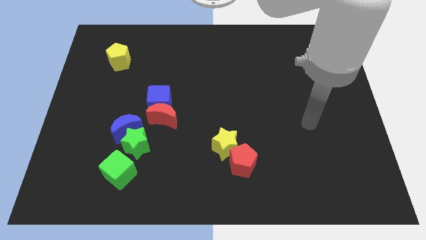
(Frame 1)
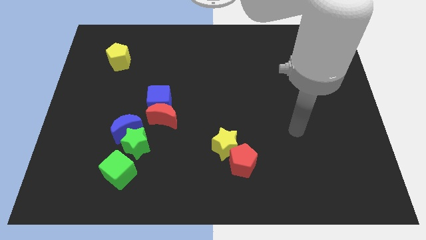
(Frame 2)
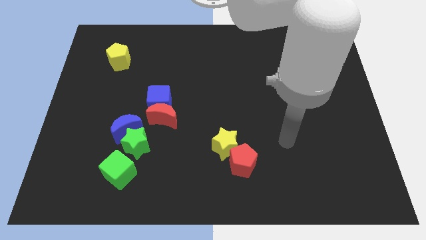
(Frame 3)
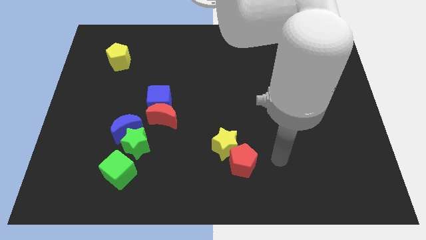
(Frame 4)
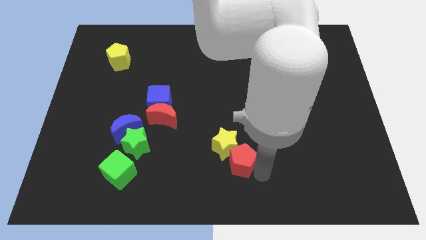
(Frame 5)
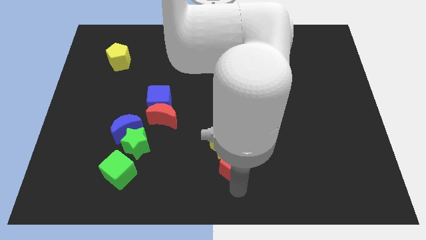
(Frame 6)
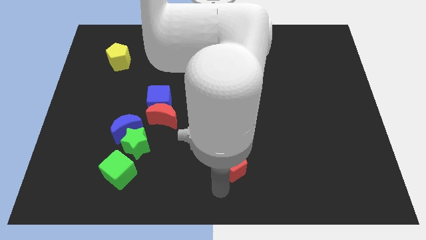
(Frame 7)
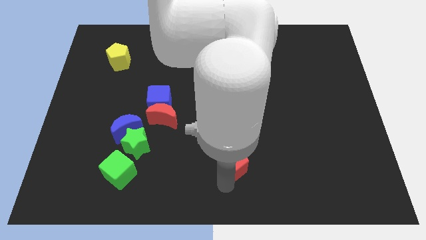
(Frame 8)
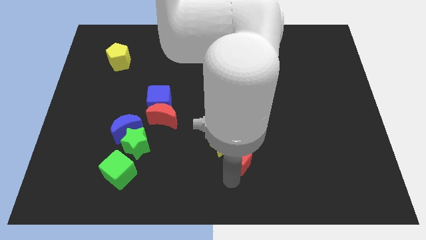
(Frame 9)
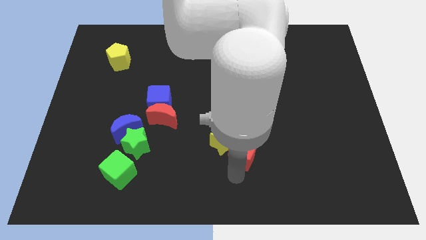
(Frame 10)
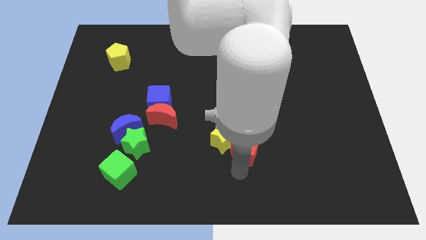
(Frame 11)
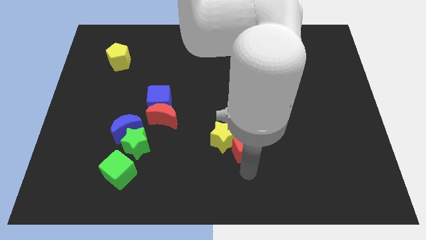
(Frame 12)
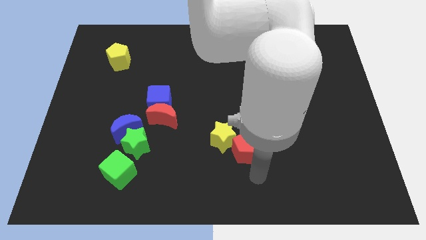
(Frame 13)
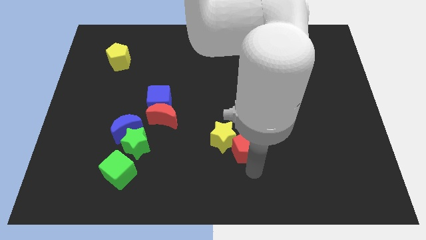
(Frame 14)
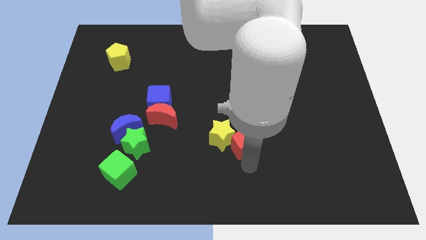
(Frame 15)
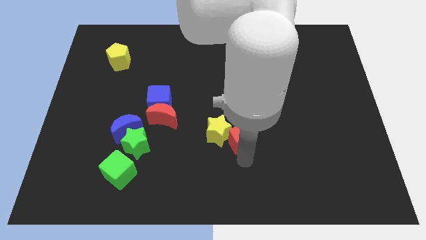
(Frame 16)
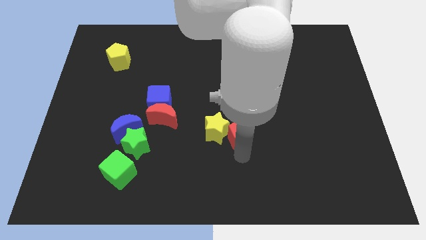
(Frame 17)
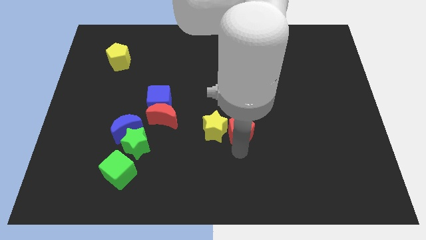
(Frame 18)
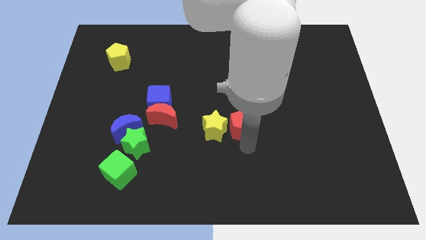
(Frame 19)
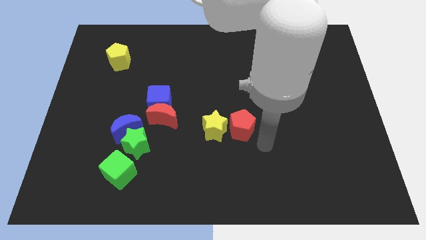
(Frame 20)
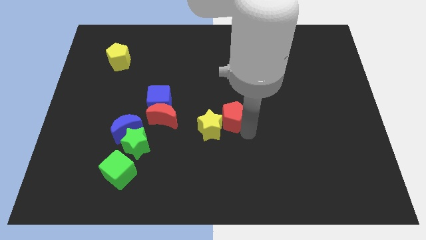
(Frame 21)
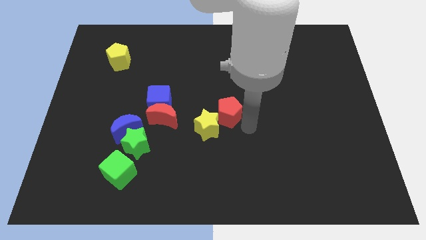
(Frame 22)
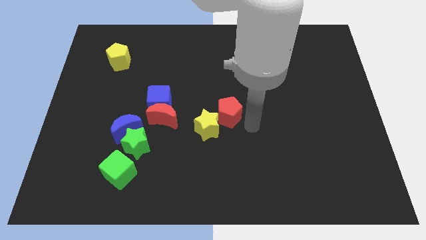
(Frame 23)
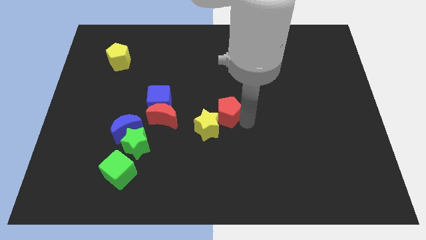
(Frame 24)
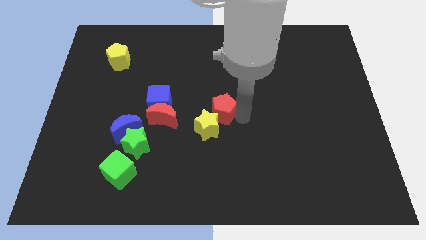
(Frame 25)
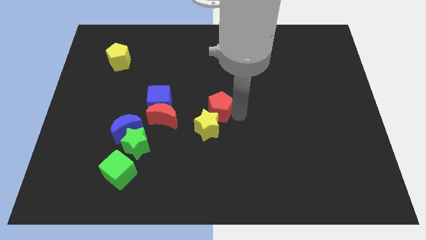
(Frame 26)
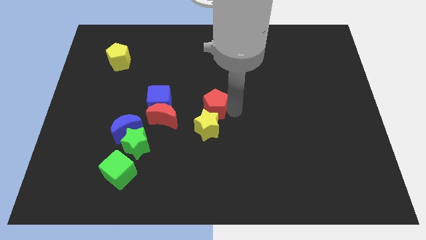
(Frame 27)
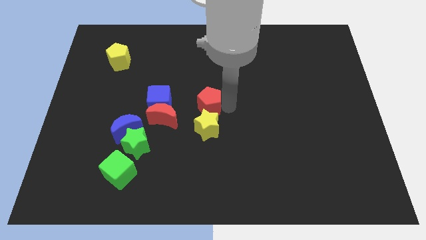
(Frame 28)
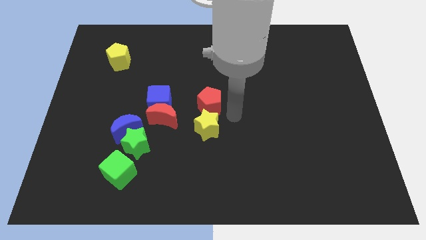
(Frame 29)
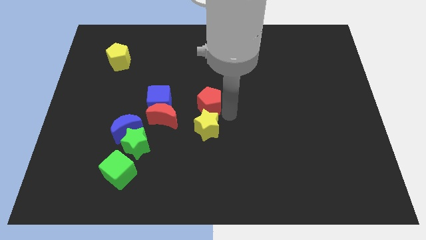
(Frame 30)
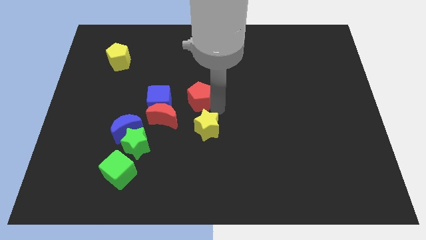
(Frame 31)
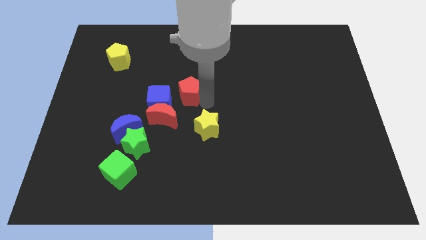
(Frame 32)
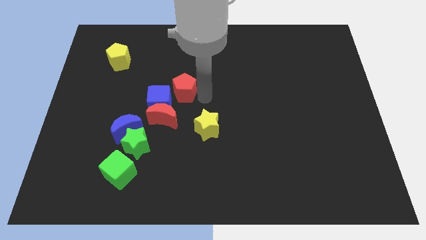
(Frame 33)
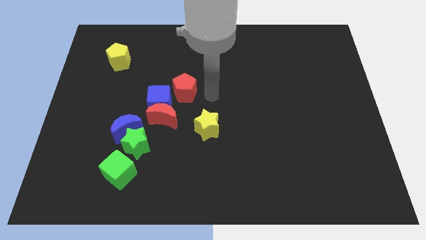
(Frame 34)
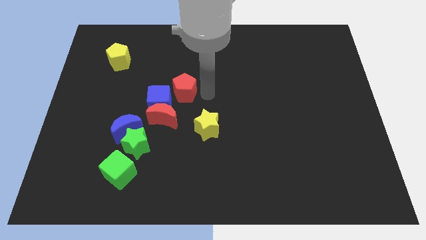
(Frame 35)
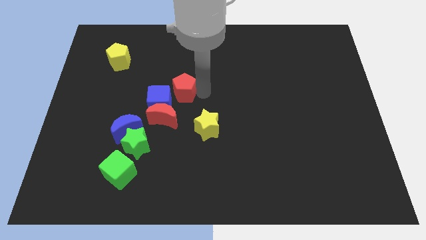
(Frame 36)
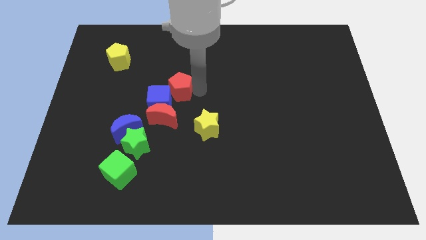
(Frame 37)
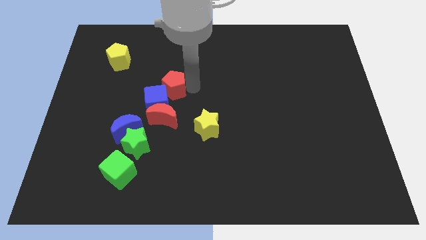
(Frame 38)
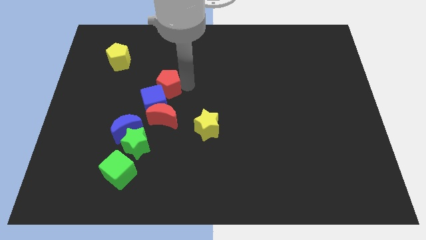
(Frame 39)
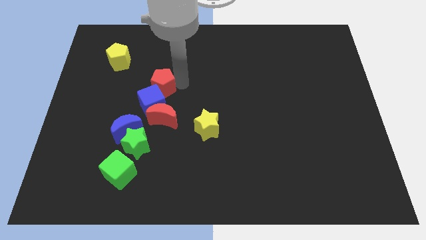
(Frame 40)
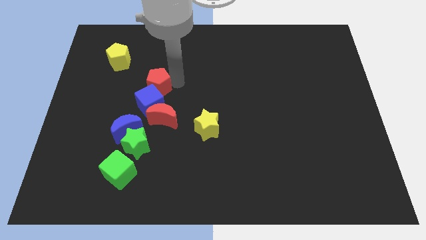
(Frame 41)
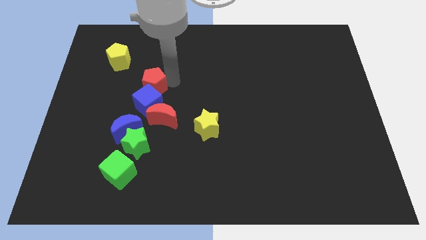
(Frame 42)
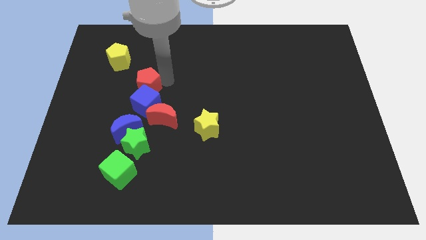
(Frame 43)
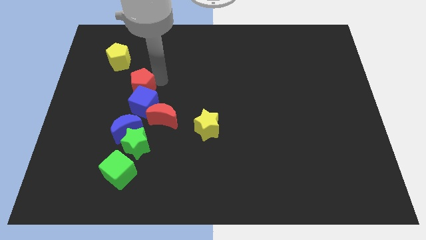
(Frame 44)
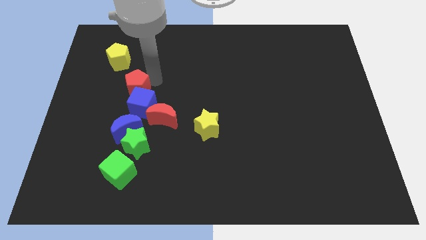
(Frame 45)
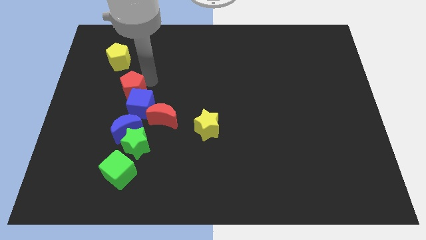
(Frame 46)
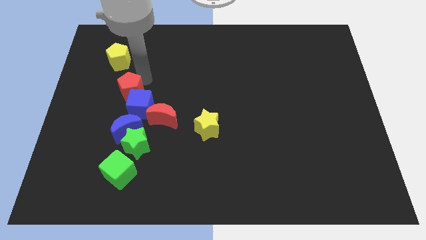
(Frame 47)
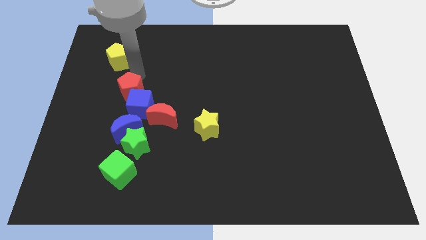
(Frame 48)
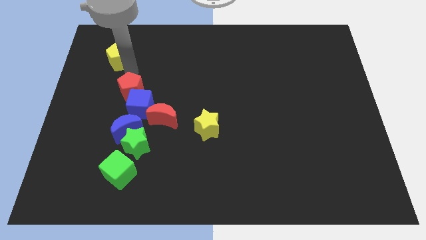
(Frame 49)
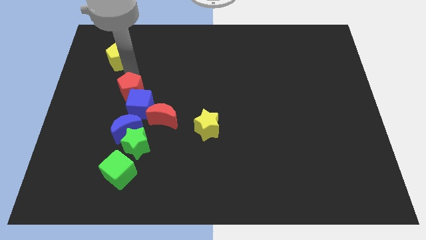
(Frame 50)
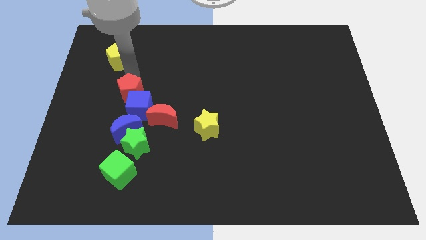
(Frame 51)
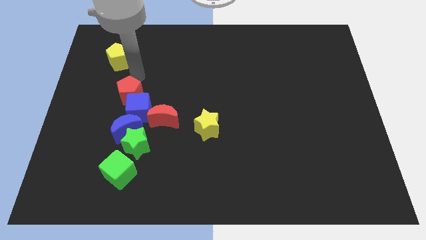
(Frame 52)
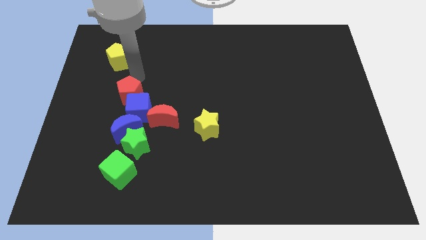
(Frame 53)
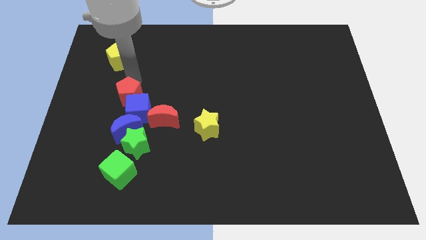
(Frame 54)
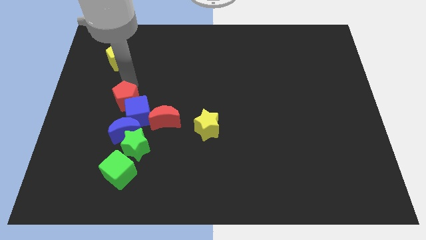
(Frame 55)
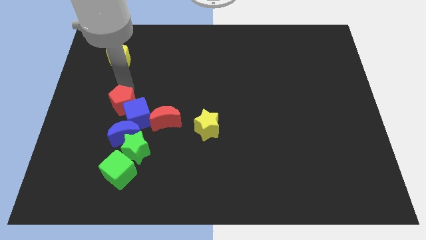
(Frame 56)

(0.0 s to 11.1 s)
put the red pentagon left of the red moon

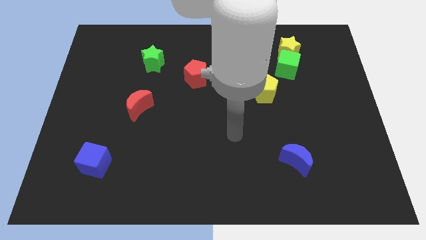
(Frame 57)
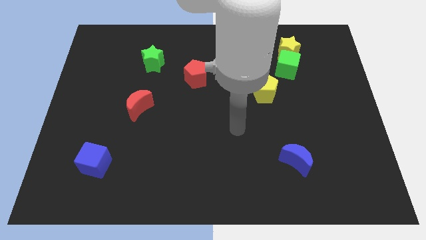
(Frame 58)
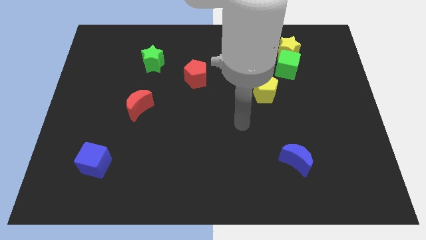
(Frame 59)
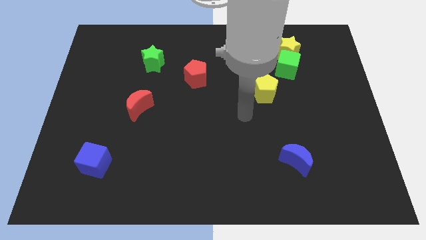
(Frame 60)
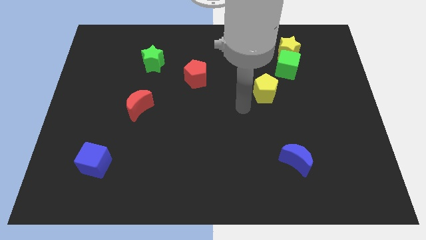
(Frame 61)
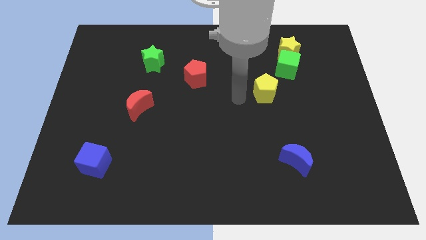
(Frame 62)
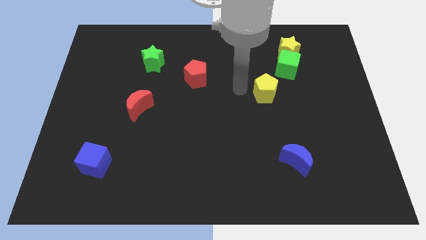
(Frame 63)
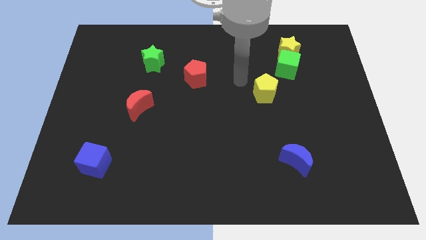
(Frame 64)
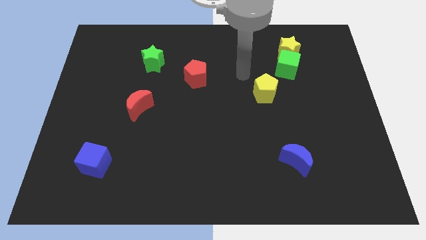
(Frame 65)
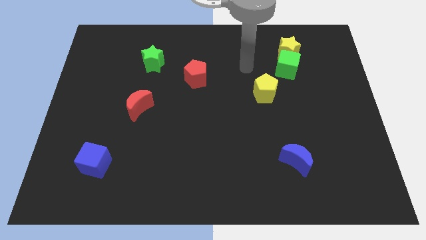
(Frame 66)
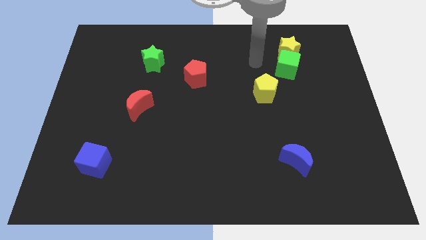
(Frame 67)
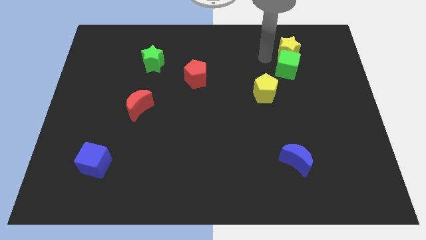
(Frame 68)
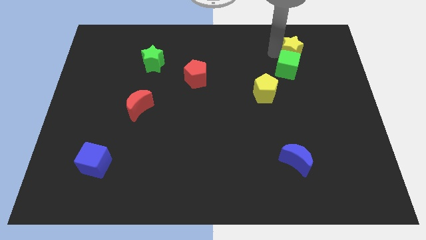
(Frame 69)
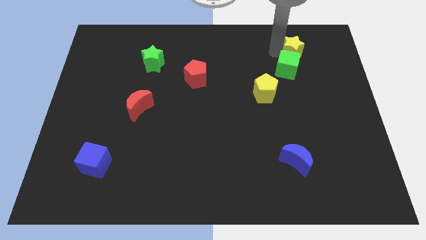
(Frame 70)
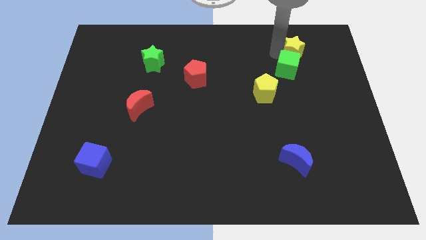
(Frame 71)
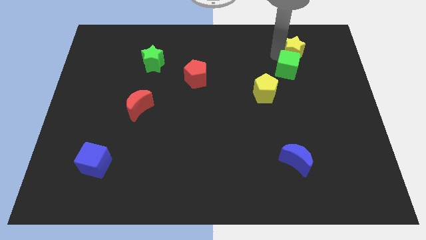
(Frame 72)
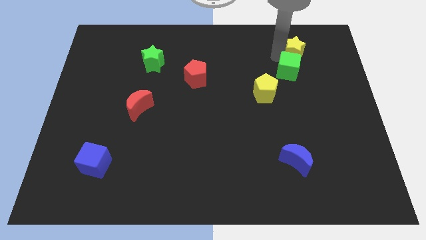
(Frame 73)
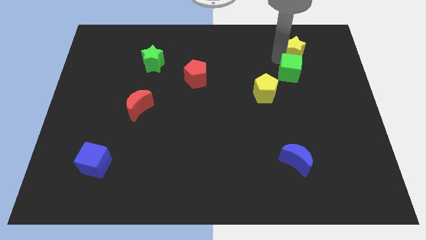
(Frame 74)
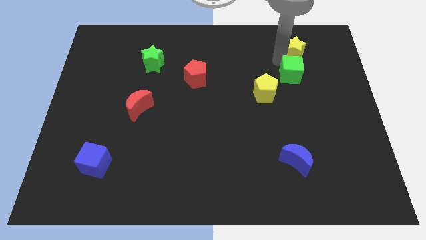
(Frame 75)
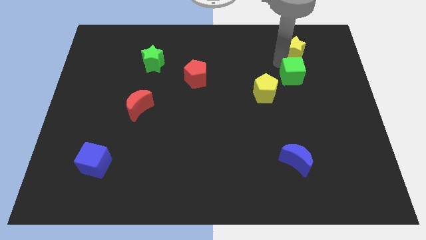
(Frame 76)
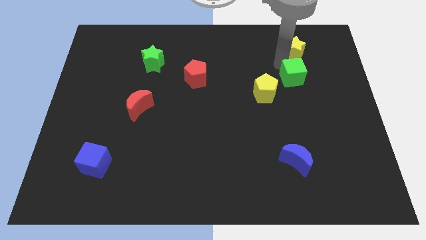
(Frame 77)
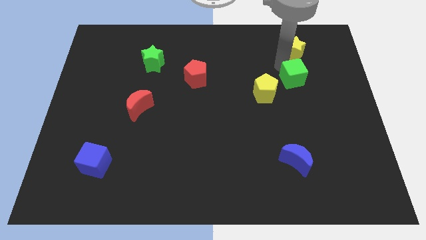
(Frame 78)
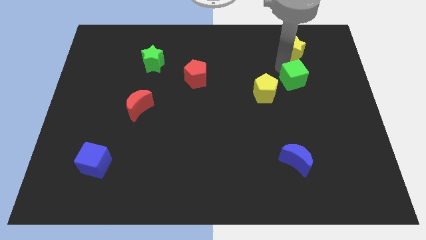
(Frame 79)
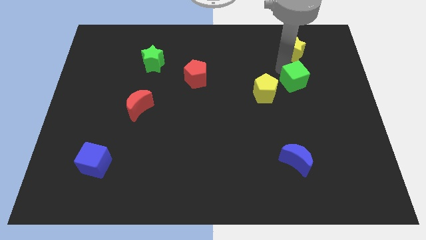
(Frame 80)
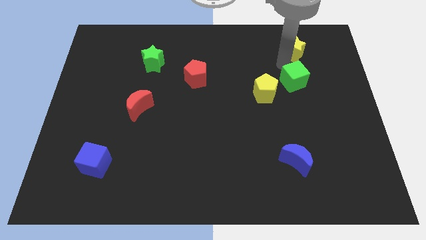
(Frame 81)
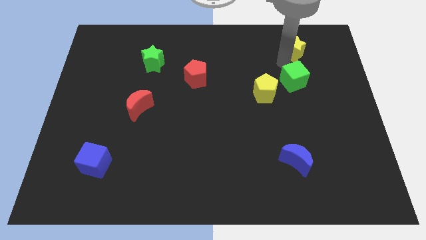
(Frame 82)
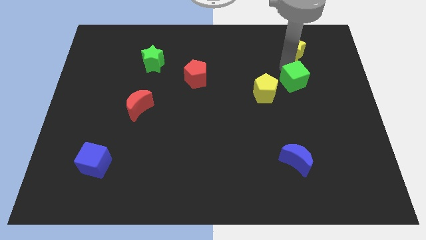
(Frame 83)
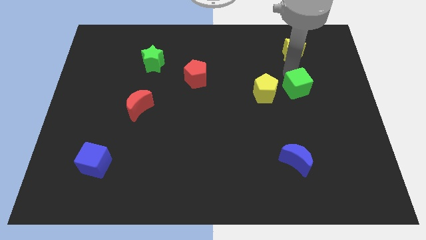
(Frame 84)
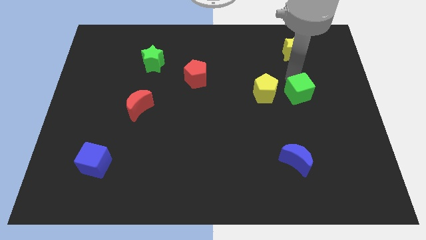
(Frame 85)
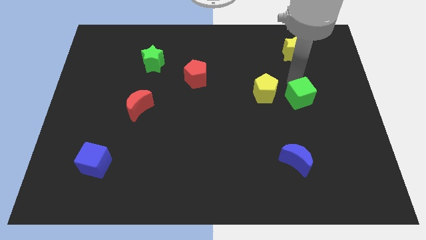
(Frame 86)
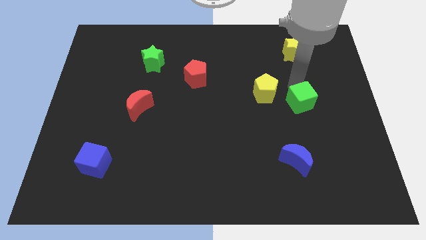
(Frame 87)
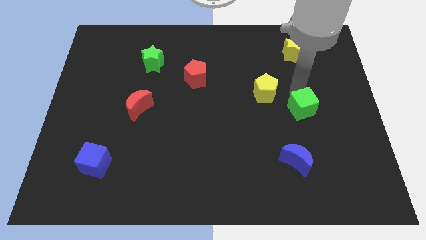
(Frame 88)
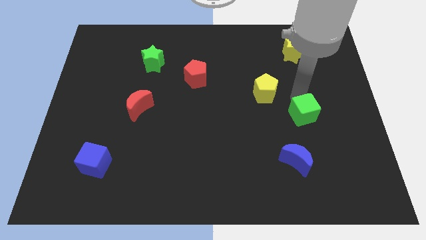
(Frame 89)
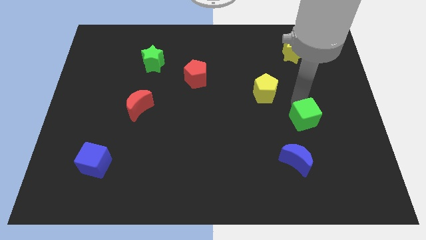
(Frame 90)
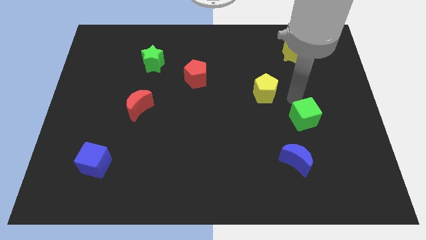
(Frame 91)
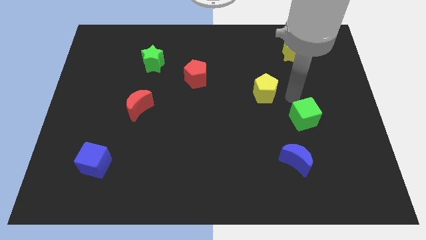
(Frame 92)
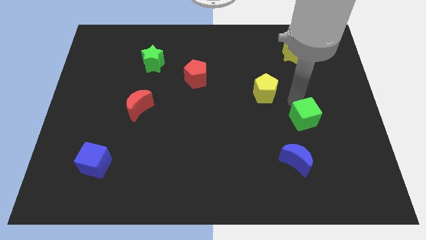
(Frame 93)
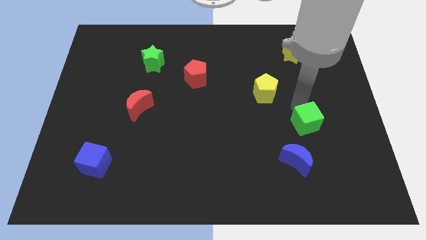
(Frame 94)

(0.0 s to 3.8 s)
push the green cube to the top right side of the blue moon
